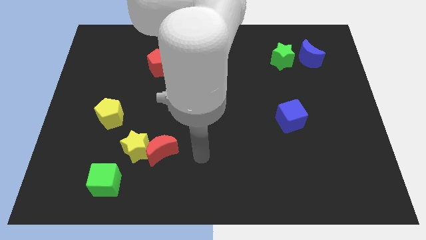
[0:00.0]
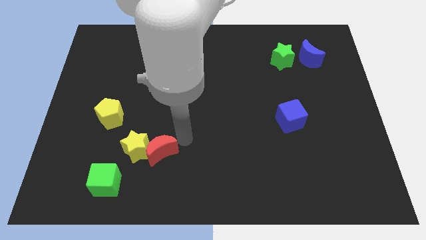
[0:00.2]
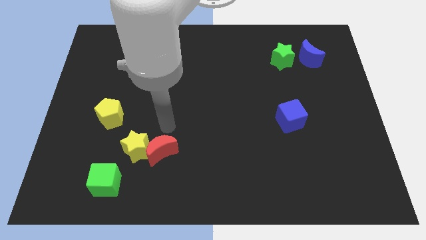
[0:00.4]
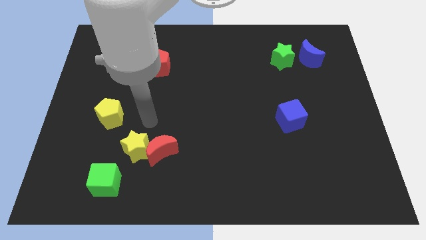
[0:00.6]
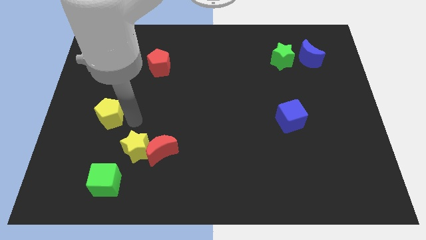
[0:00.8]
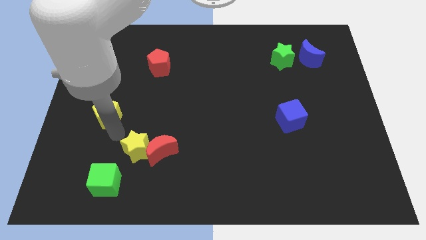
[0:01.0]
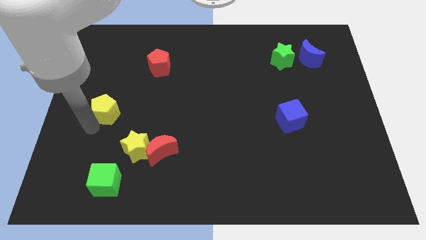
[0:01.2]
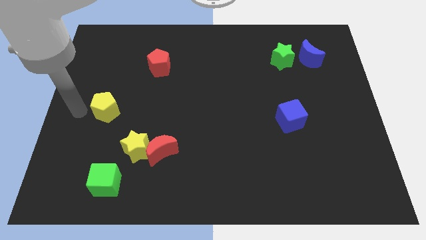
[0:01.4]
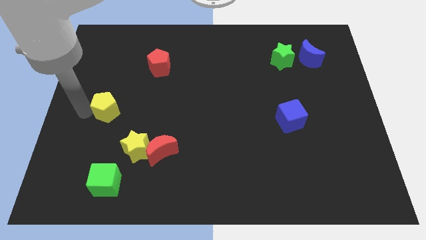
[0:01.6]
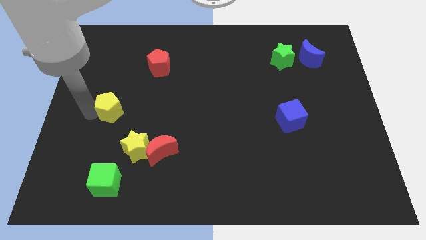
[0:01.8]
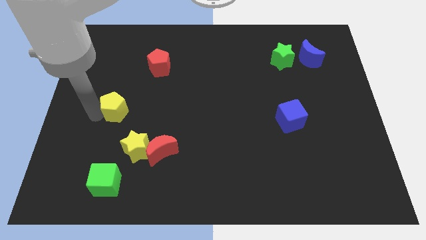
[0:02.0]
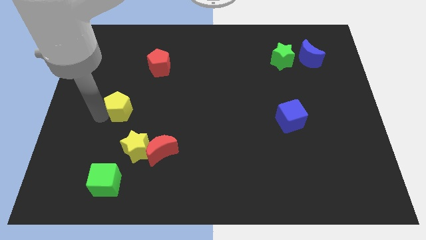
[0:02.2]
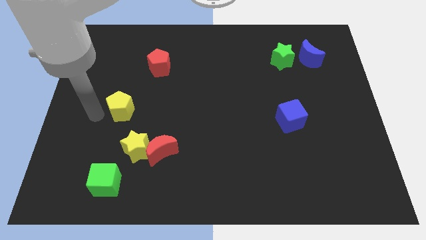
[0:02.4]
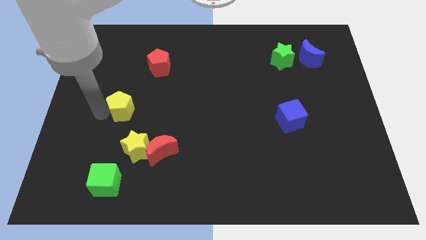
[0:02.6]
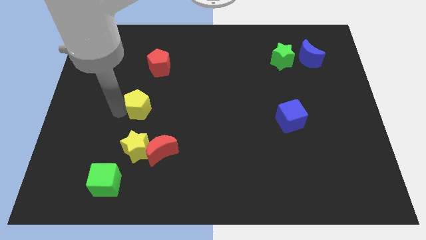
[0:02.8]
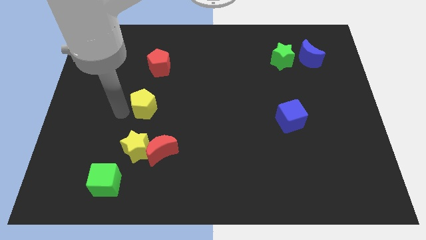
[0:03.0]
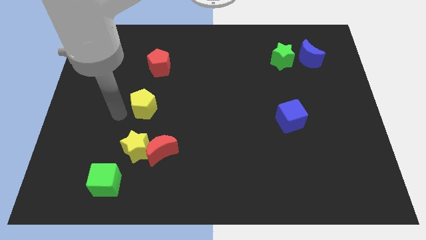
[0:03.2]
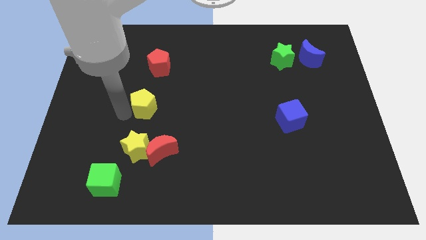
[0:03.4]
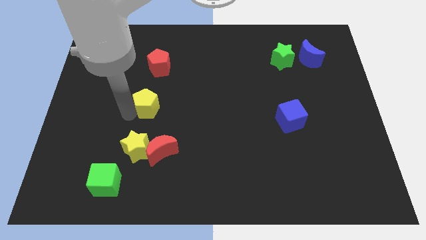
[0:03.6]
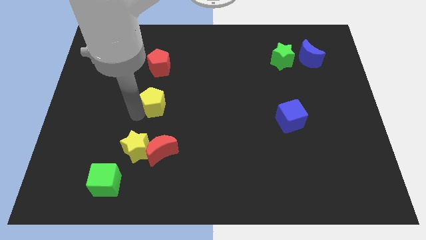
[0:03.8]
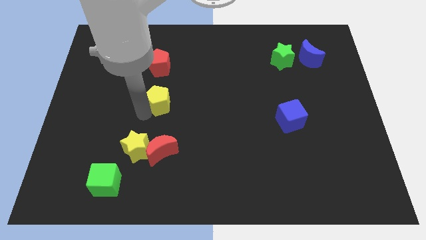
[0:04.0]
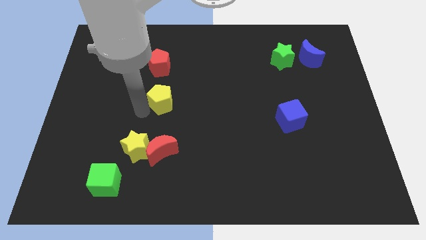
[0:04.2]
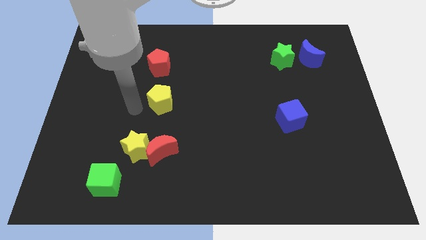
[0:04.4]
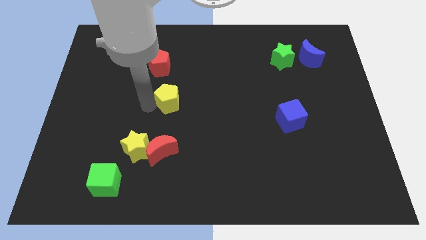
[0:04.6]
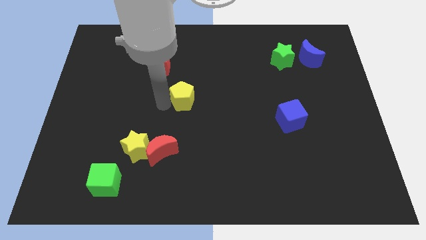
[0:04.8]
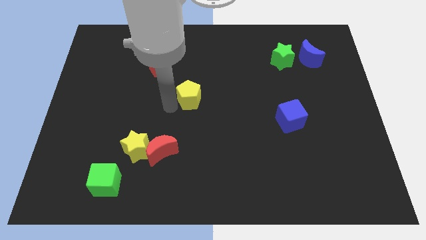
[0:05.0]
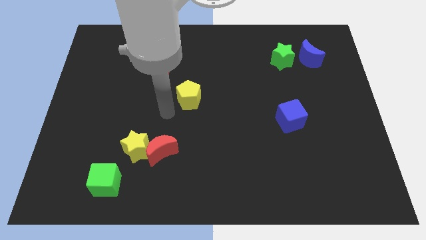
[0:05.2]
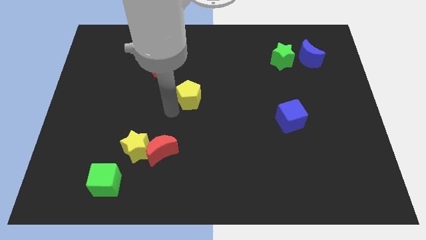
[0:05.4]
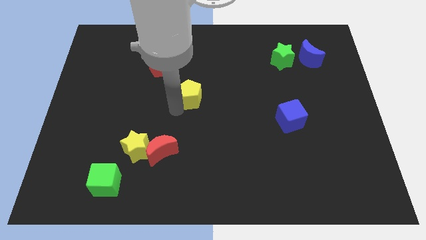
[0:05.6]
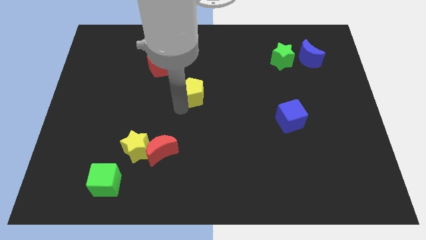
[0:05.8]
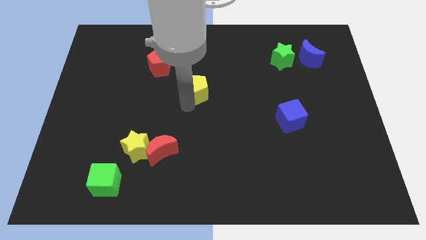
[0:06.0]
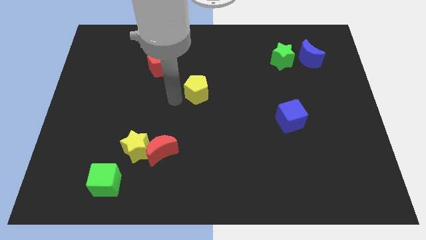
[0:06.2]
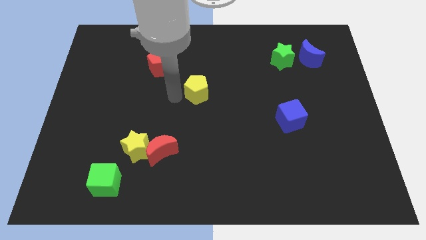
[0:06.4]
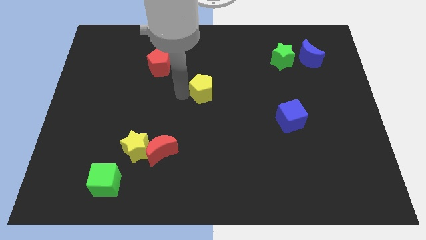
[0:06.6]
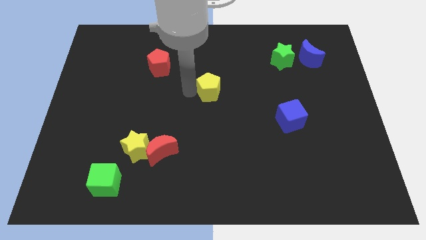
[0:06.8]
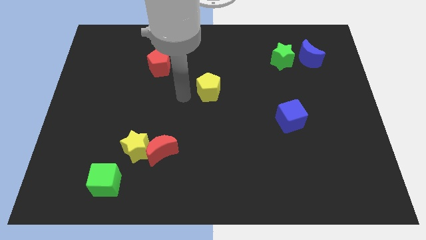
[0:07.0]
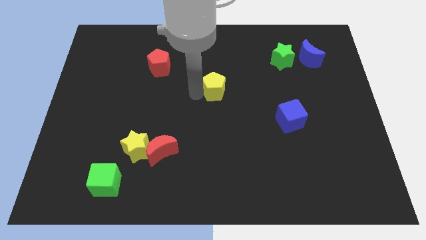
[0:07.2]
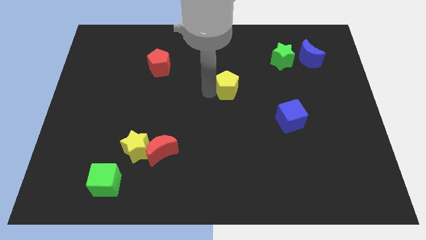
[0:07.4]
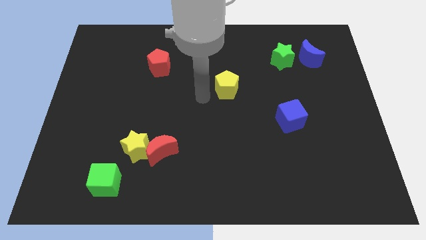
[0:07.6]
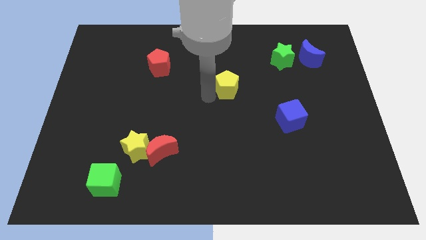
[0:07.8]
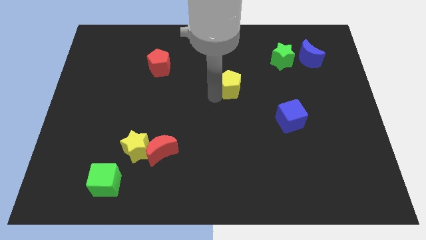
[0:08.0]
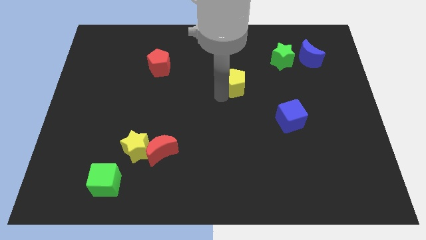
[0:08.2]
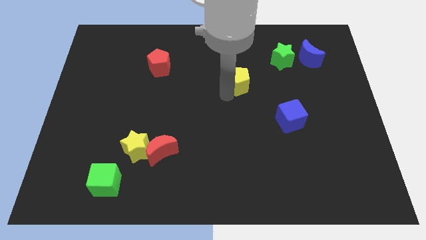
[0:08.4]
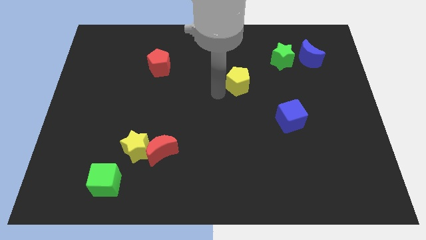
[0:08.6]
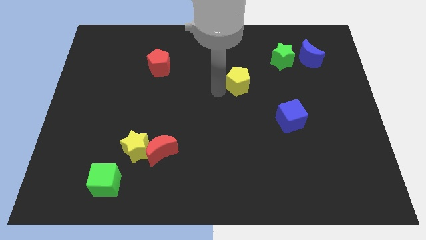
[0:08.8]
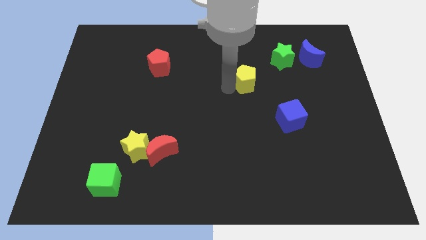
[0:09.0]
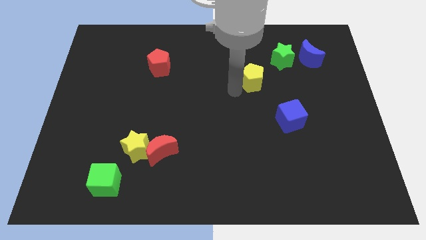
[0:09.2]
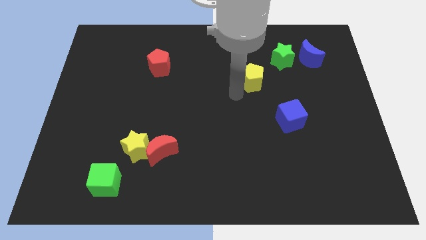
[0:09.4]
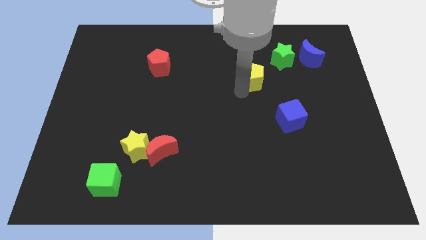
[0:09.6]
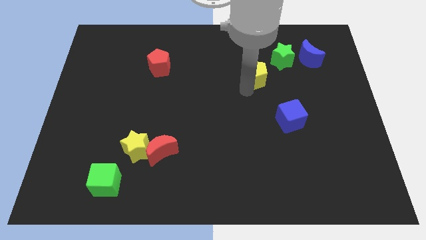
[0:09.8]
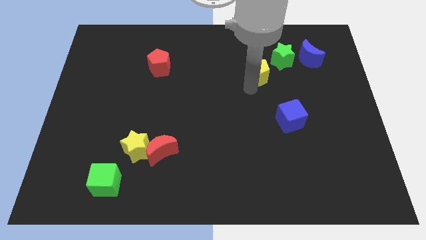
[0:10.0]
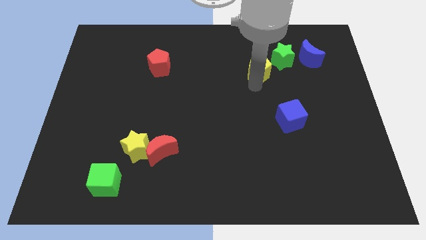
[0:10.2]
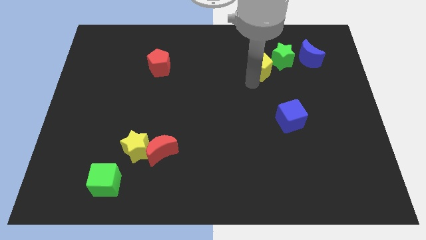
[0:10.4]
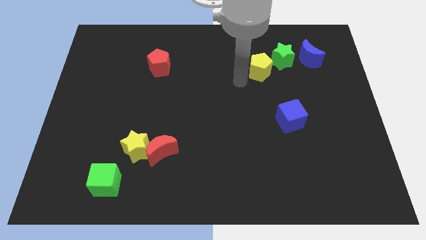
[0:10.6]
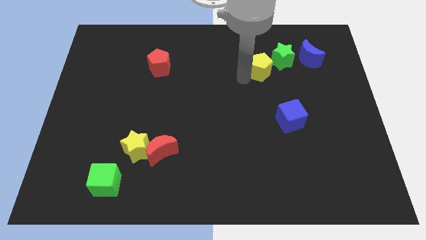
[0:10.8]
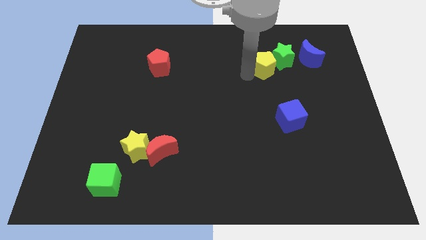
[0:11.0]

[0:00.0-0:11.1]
slide the yellow pentagon close to the green star

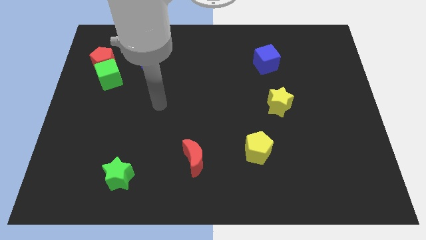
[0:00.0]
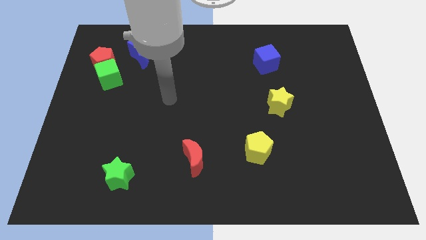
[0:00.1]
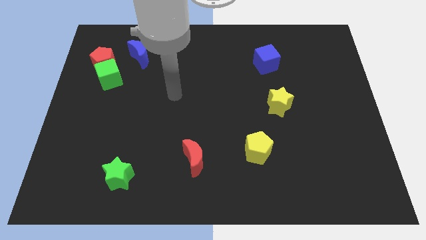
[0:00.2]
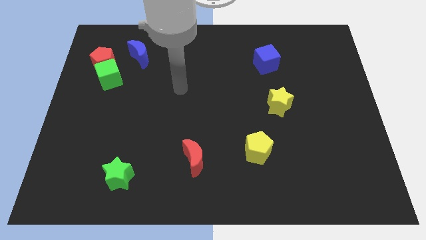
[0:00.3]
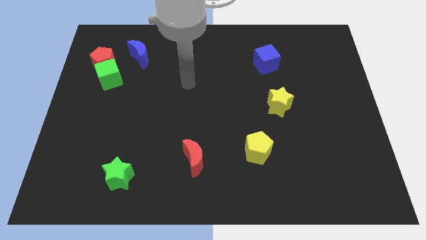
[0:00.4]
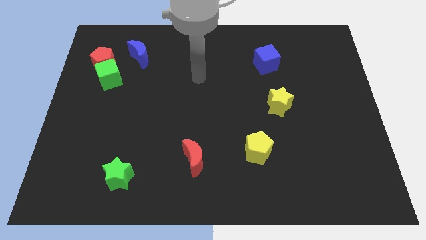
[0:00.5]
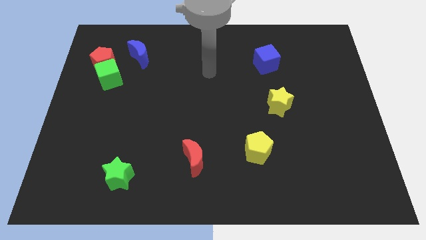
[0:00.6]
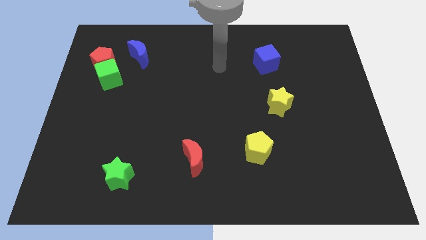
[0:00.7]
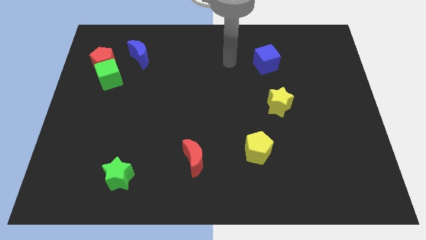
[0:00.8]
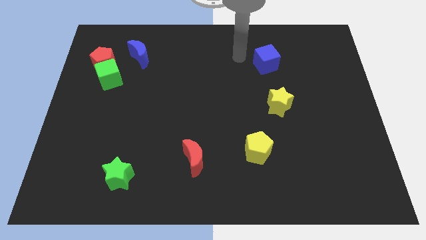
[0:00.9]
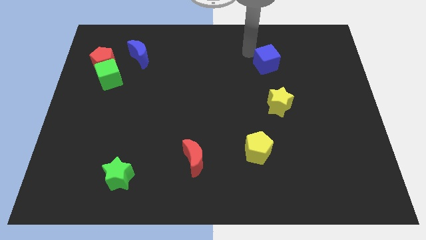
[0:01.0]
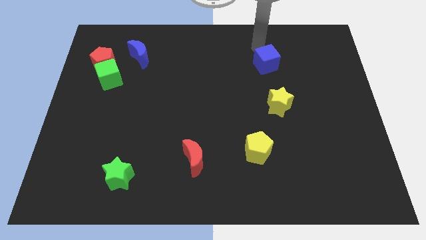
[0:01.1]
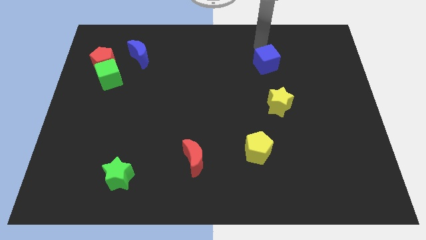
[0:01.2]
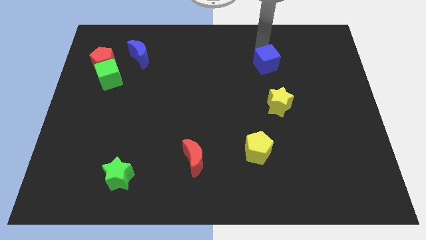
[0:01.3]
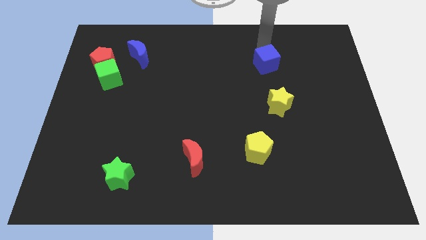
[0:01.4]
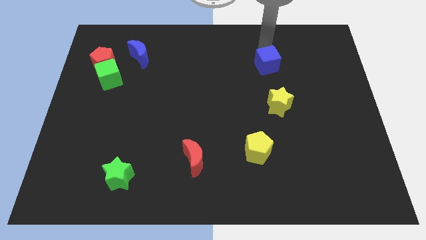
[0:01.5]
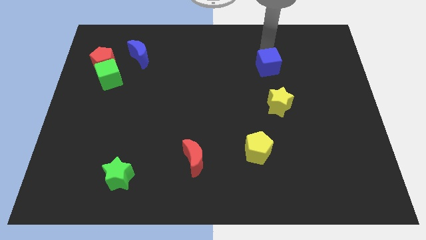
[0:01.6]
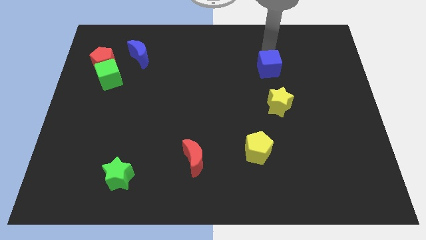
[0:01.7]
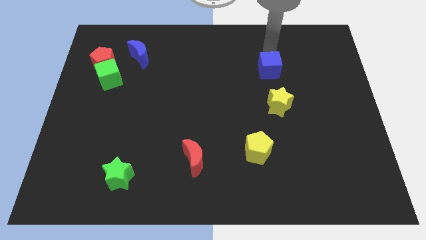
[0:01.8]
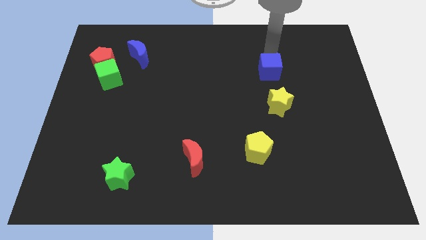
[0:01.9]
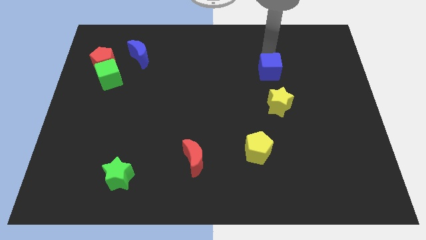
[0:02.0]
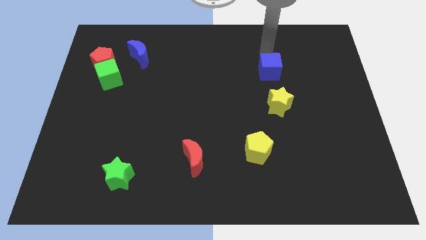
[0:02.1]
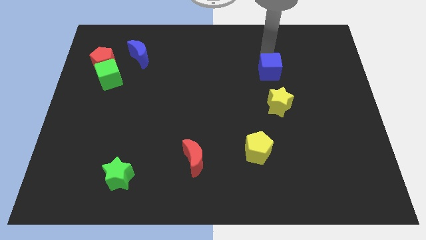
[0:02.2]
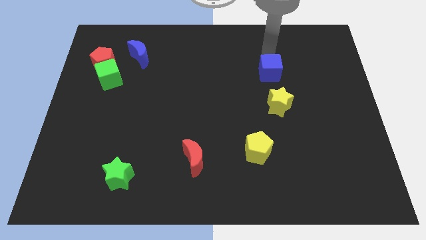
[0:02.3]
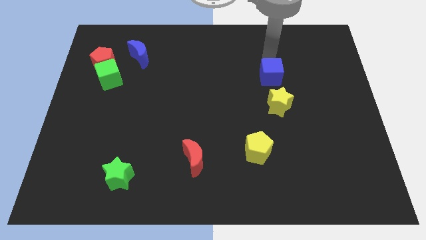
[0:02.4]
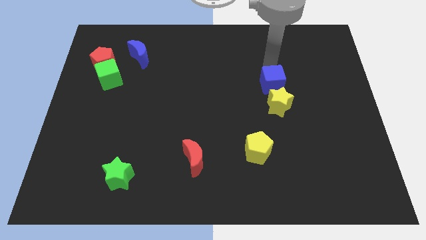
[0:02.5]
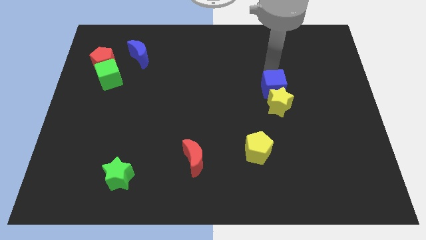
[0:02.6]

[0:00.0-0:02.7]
move the blue cube next to the yellow star
